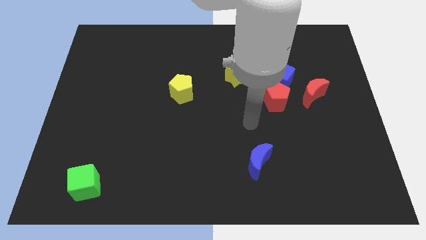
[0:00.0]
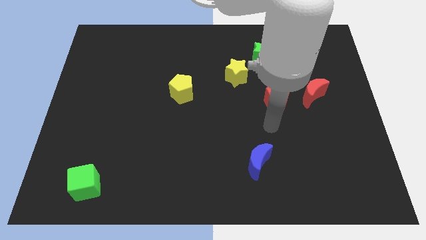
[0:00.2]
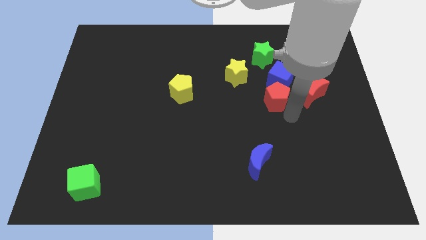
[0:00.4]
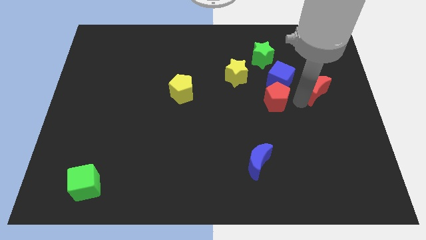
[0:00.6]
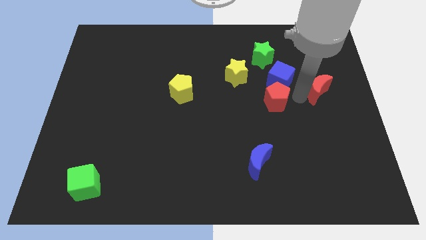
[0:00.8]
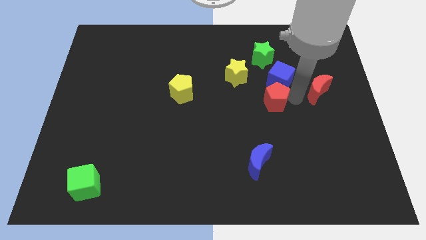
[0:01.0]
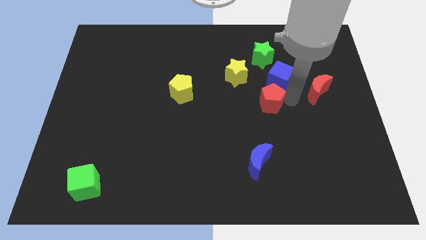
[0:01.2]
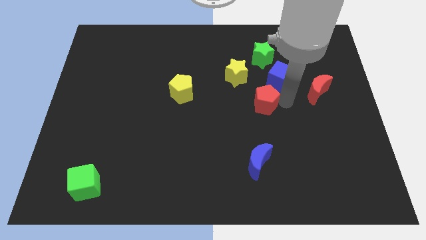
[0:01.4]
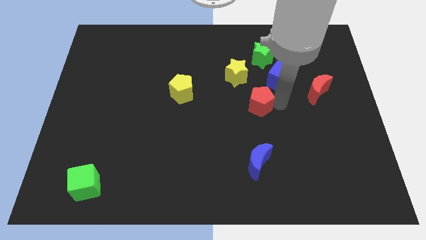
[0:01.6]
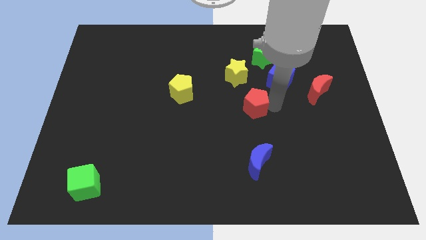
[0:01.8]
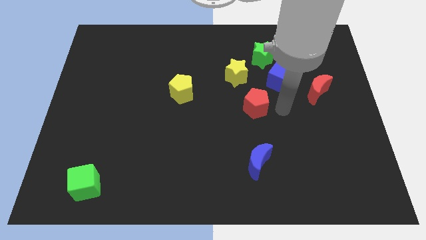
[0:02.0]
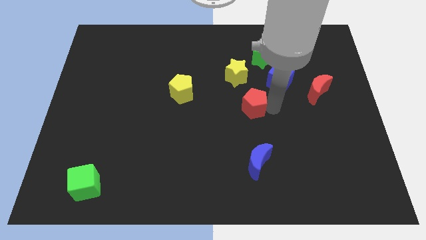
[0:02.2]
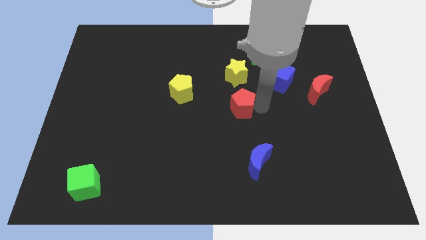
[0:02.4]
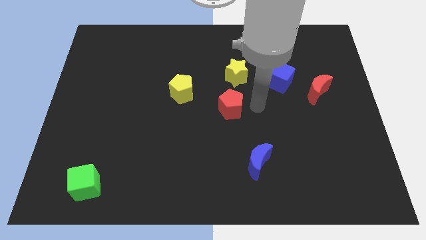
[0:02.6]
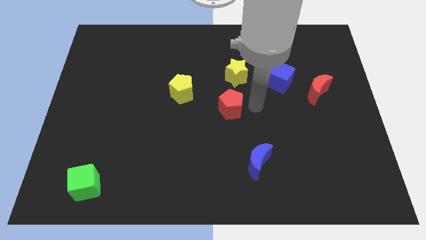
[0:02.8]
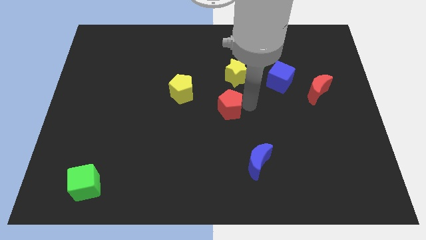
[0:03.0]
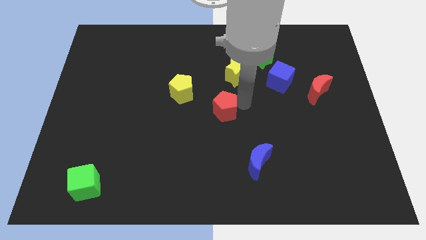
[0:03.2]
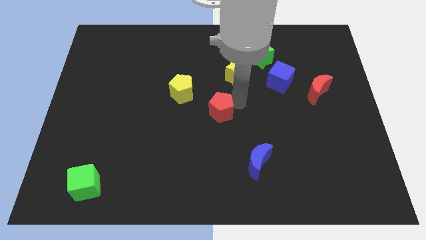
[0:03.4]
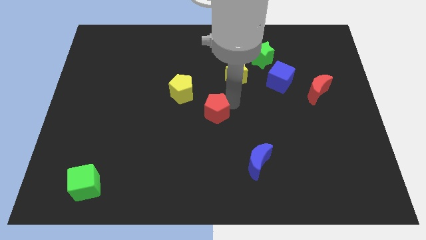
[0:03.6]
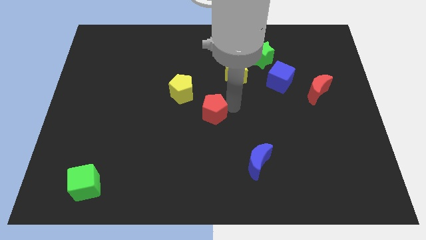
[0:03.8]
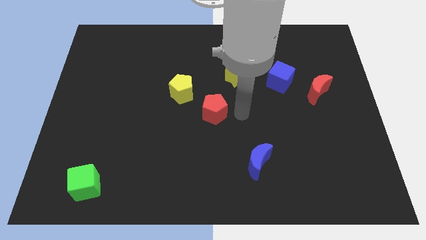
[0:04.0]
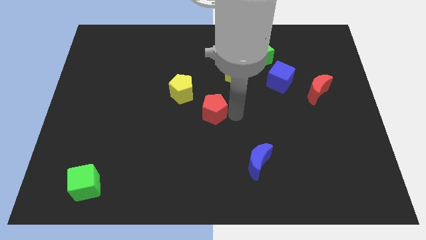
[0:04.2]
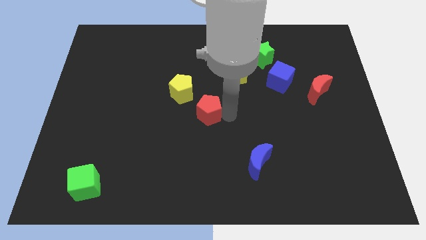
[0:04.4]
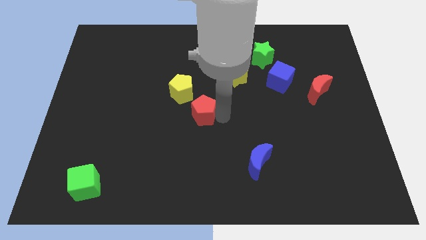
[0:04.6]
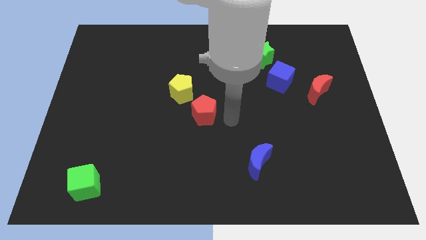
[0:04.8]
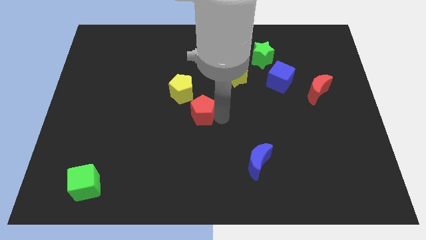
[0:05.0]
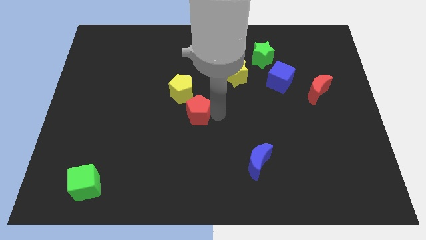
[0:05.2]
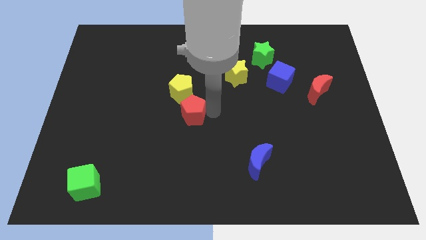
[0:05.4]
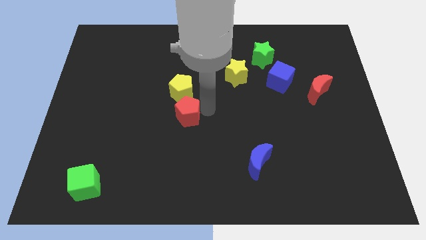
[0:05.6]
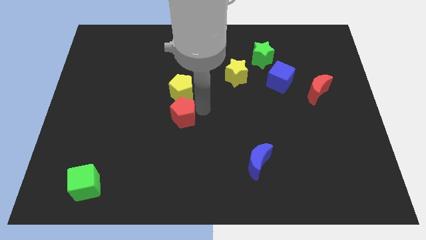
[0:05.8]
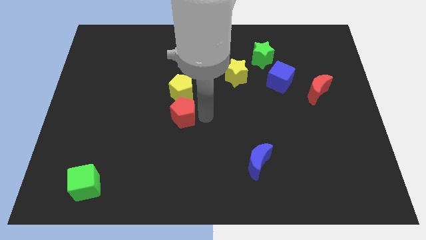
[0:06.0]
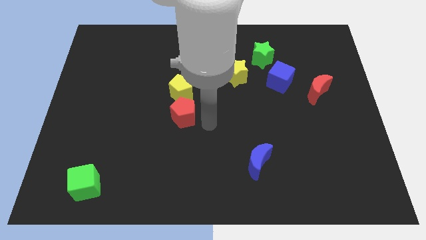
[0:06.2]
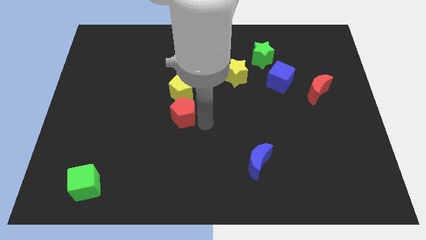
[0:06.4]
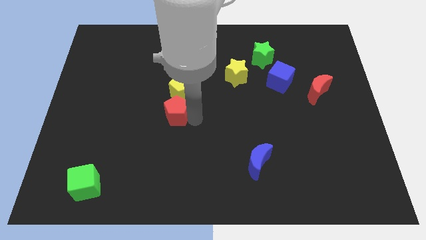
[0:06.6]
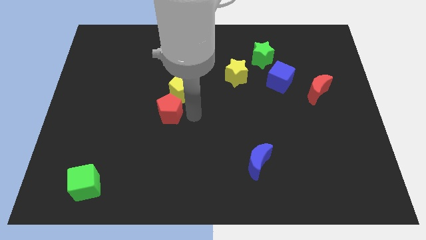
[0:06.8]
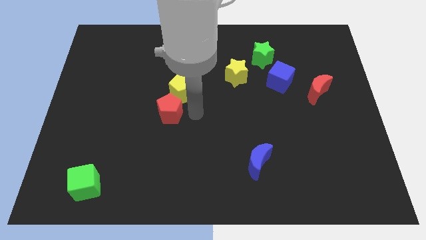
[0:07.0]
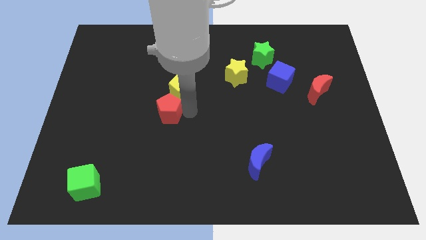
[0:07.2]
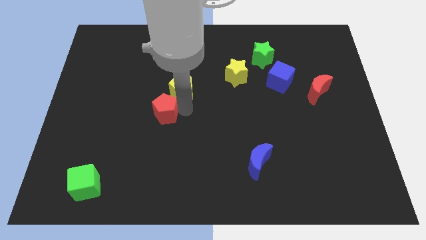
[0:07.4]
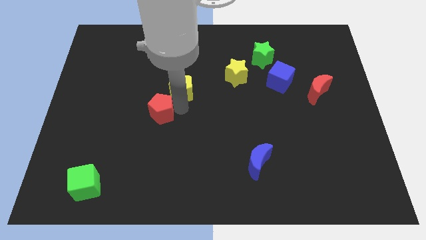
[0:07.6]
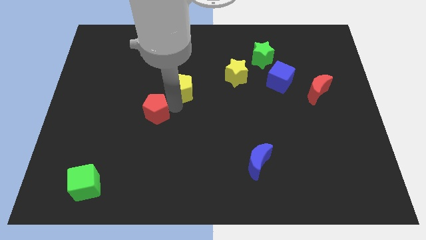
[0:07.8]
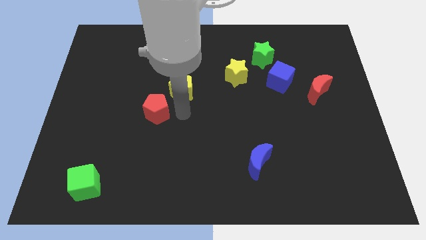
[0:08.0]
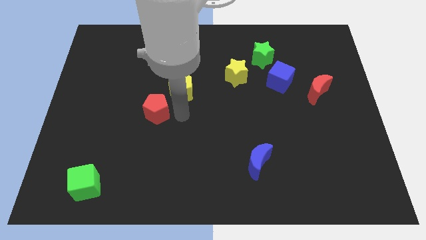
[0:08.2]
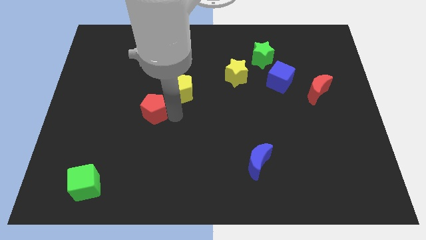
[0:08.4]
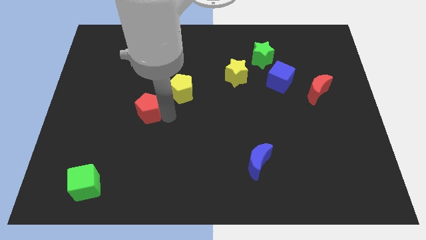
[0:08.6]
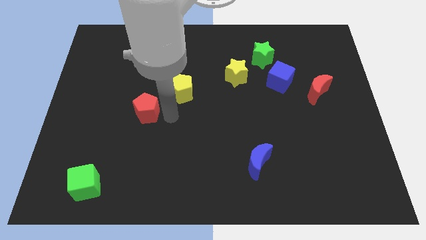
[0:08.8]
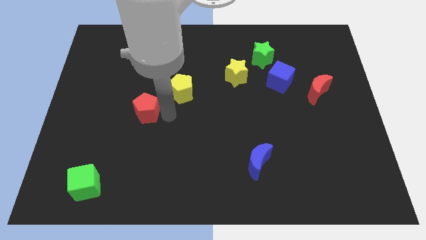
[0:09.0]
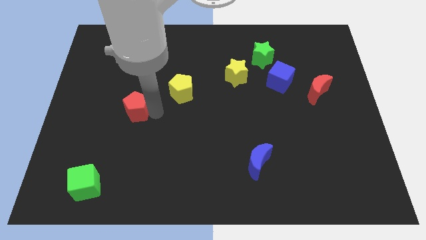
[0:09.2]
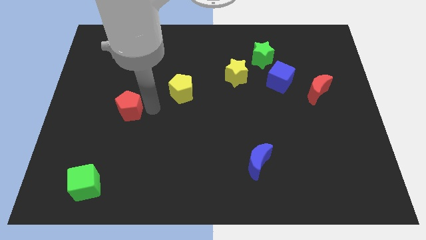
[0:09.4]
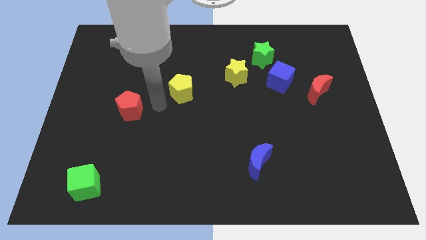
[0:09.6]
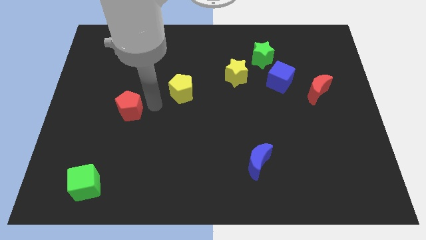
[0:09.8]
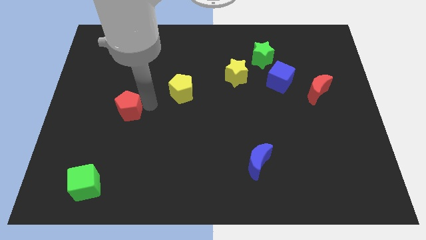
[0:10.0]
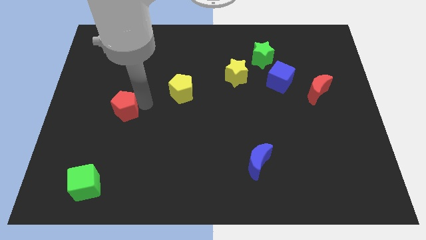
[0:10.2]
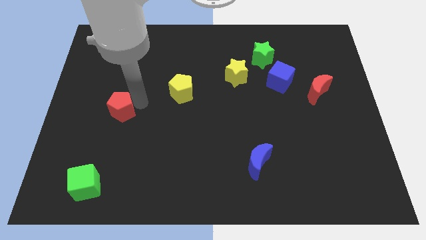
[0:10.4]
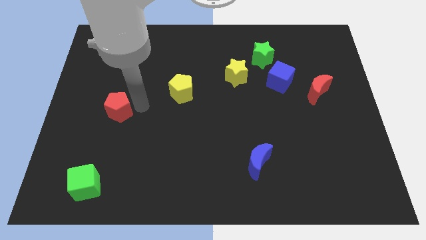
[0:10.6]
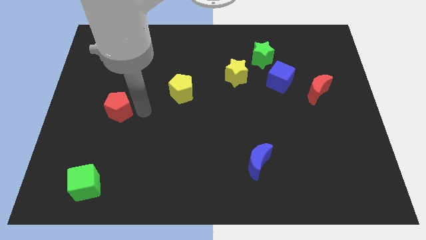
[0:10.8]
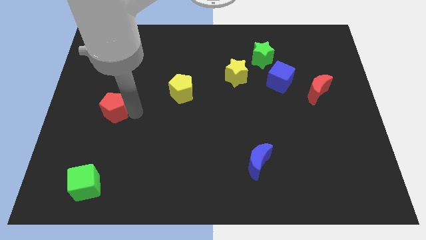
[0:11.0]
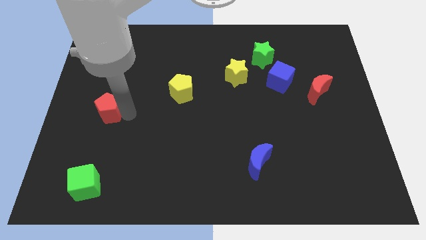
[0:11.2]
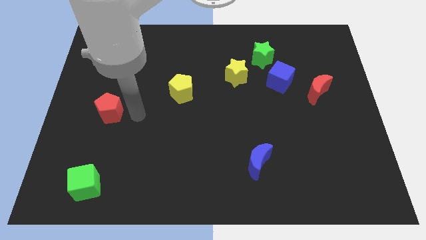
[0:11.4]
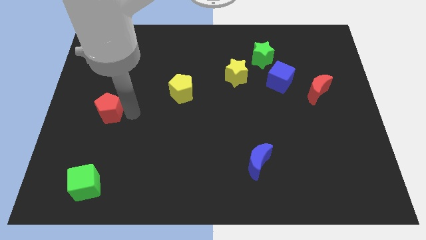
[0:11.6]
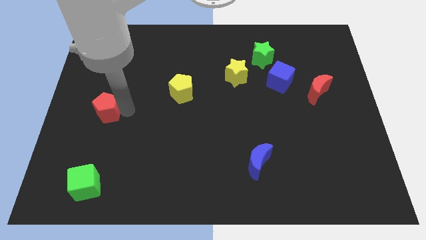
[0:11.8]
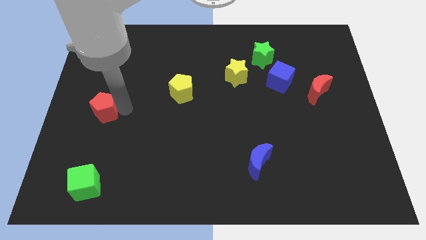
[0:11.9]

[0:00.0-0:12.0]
put the red pentagon to the left side of the board

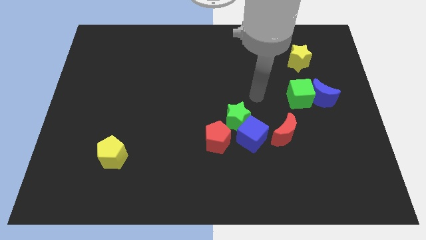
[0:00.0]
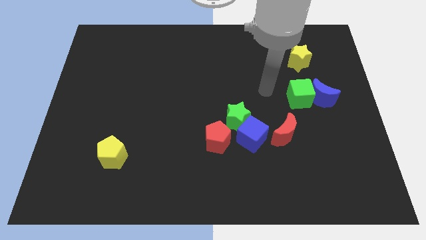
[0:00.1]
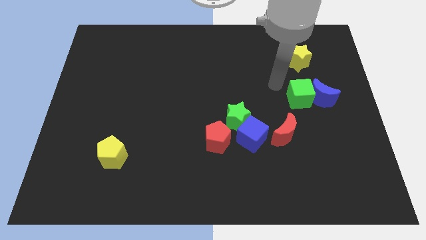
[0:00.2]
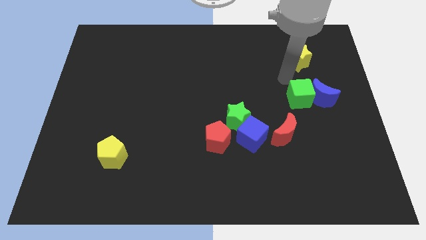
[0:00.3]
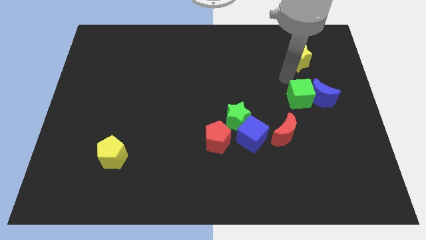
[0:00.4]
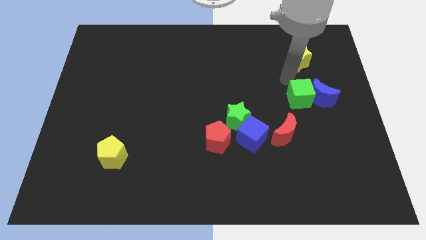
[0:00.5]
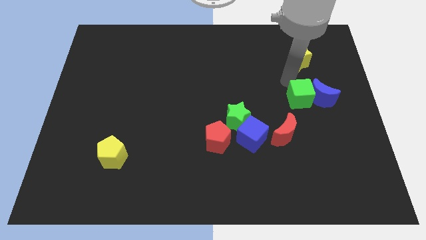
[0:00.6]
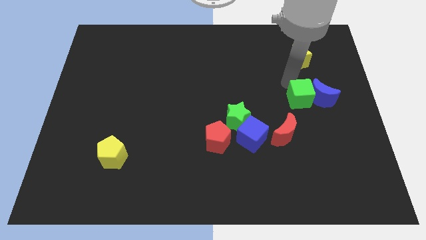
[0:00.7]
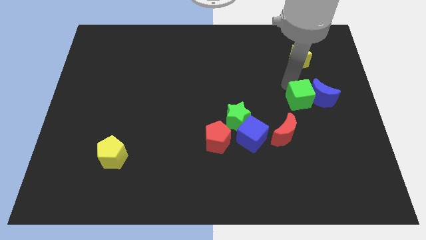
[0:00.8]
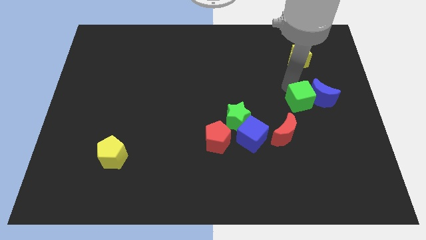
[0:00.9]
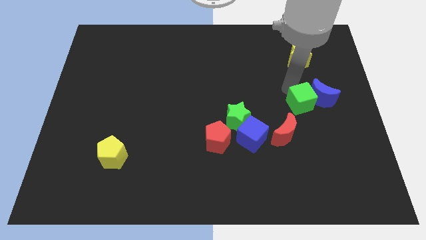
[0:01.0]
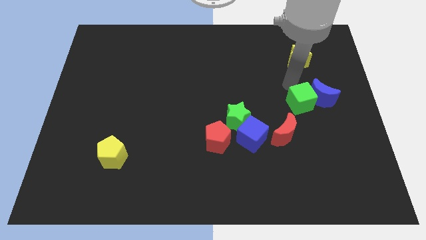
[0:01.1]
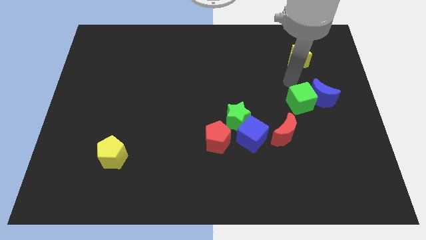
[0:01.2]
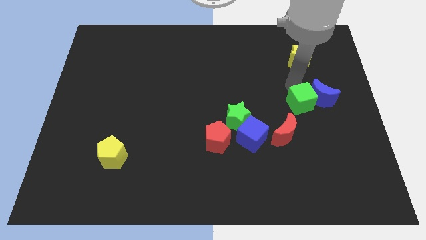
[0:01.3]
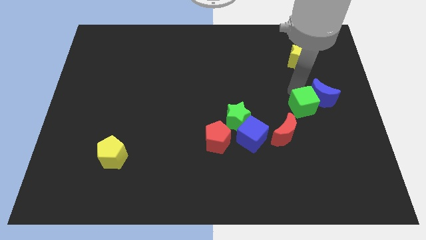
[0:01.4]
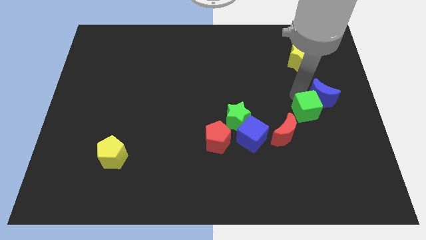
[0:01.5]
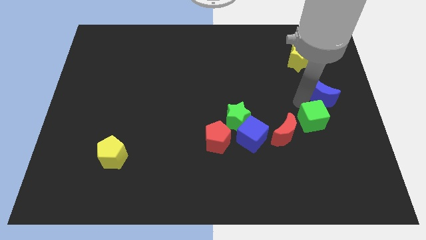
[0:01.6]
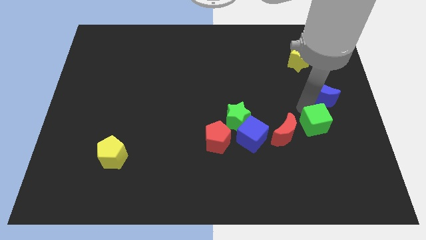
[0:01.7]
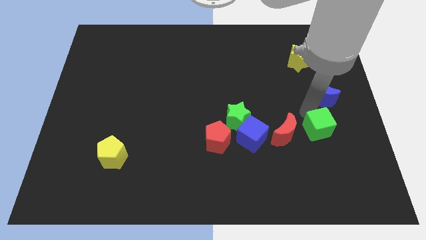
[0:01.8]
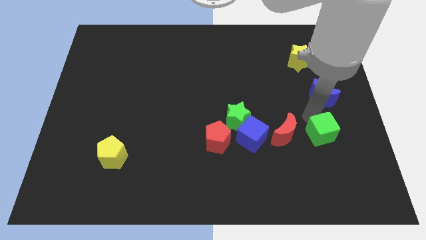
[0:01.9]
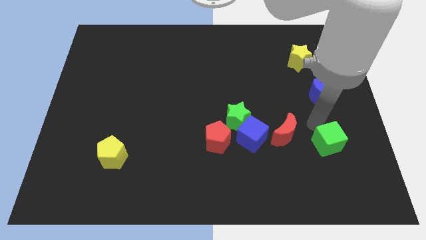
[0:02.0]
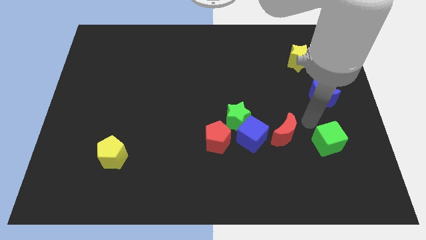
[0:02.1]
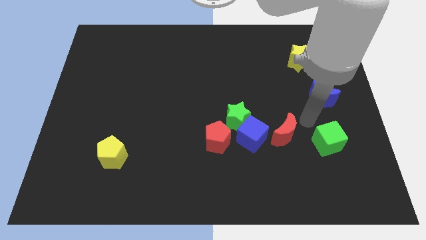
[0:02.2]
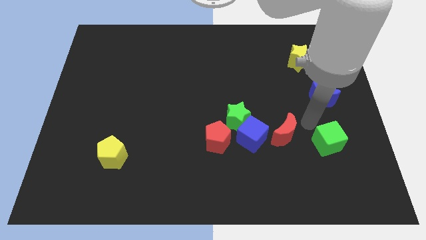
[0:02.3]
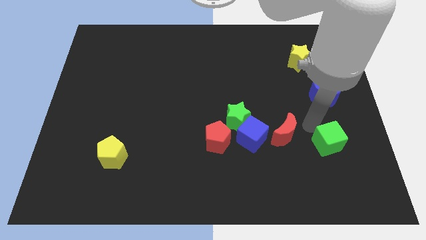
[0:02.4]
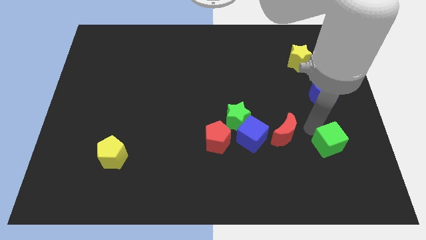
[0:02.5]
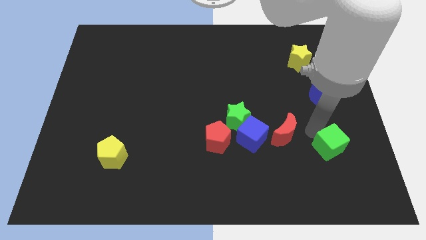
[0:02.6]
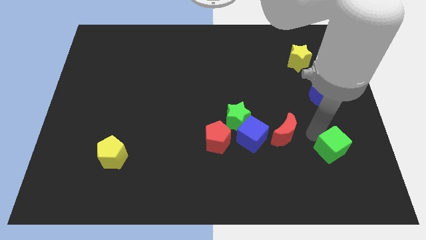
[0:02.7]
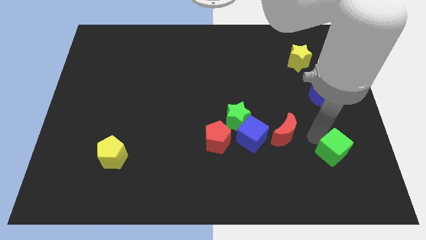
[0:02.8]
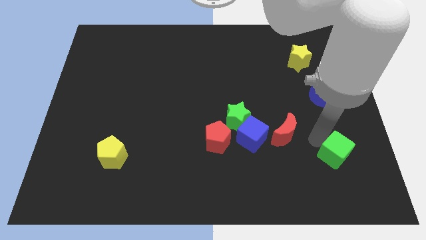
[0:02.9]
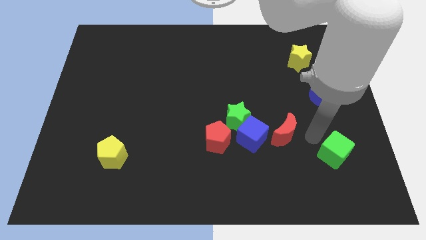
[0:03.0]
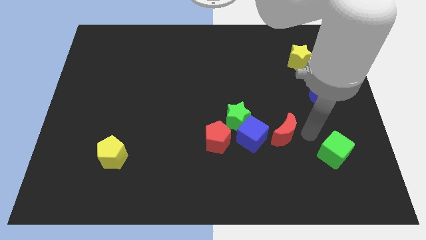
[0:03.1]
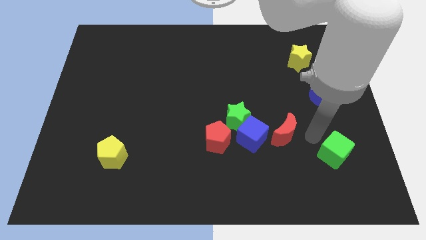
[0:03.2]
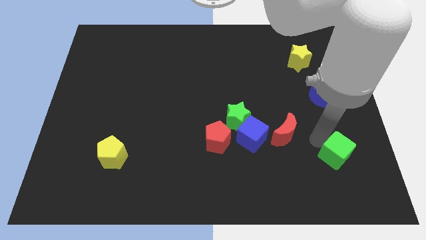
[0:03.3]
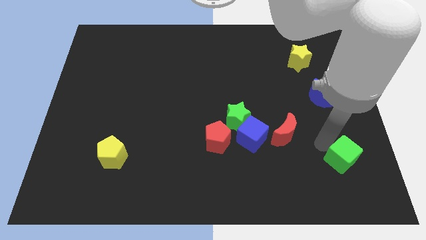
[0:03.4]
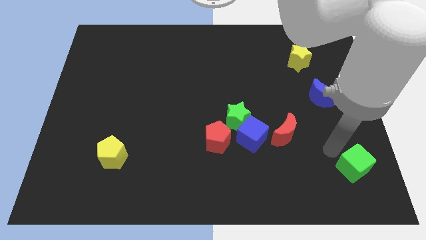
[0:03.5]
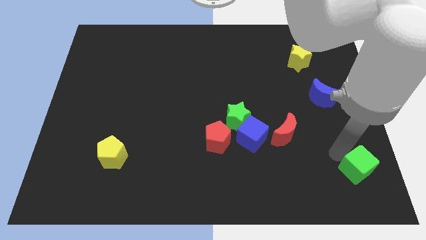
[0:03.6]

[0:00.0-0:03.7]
push the green cube to the bottom right
